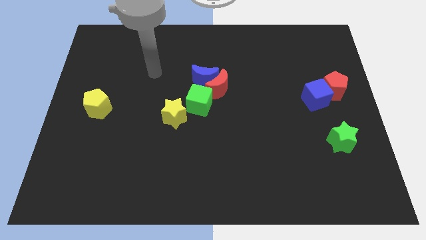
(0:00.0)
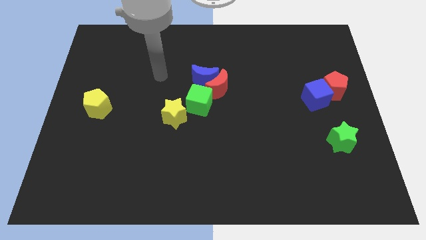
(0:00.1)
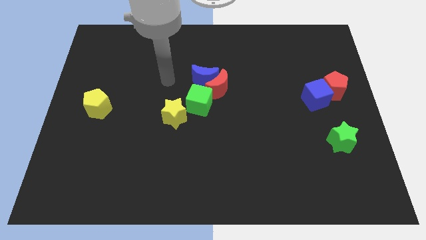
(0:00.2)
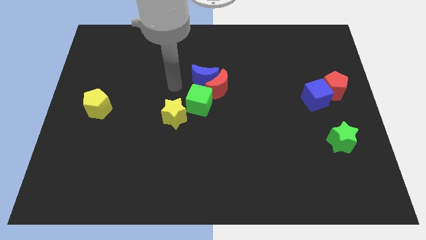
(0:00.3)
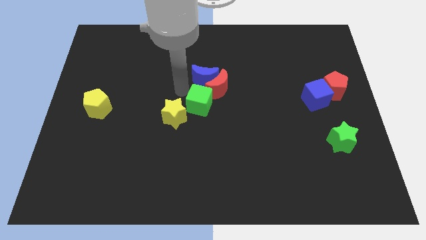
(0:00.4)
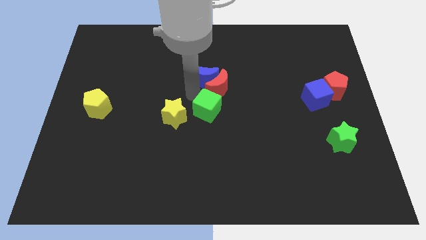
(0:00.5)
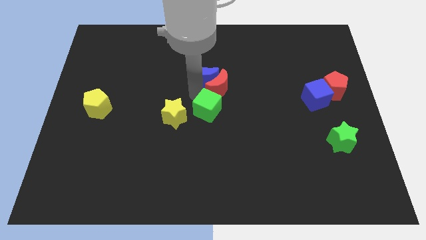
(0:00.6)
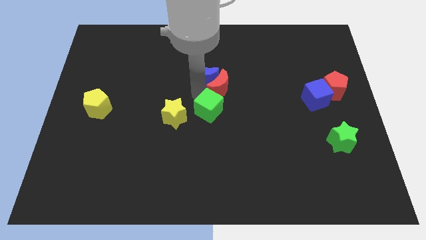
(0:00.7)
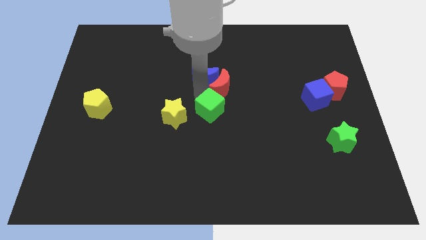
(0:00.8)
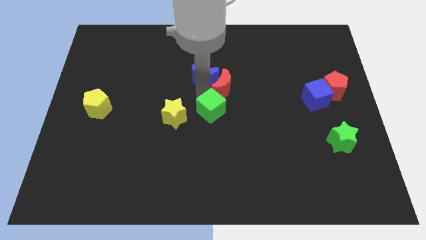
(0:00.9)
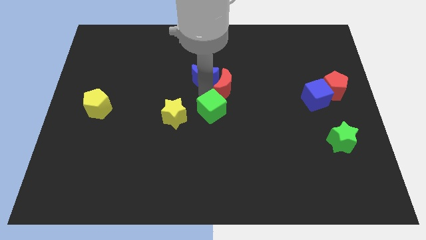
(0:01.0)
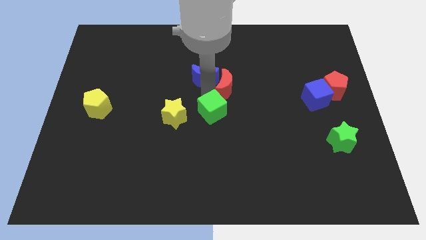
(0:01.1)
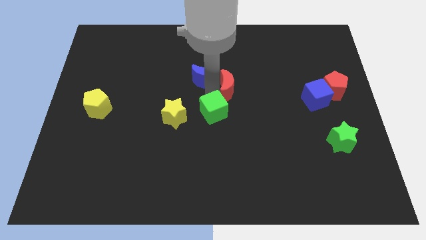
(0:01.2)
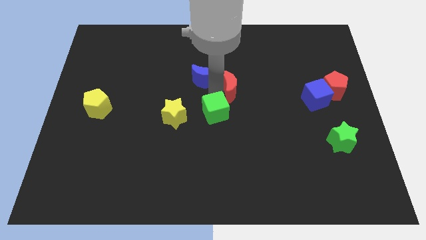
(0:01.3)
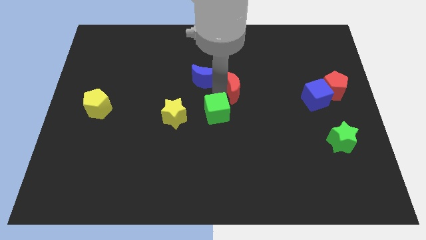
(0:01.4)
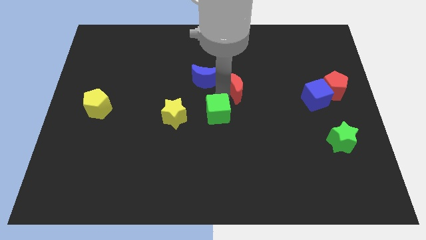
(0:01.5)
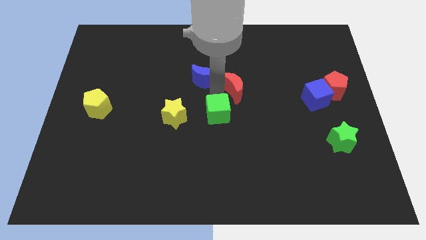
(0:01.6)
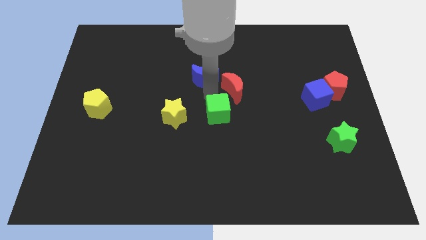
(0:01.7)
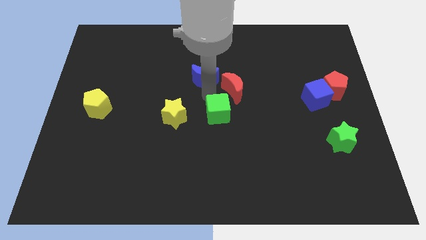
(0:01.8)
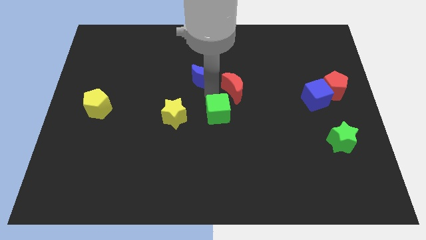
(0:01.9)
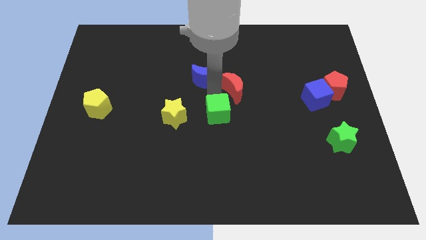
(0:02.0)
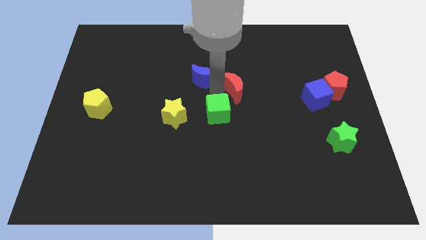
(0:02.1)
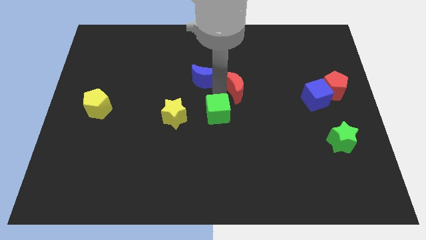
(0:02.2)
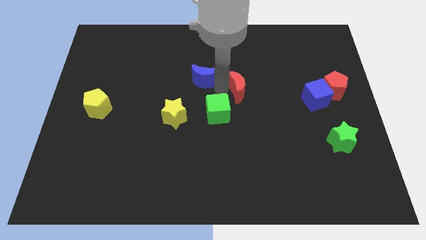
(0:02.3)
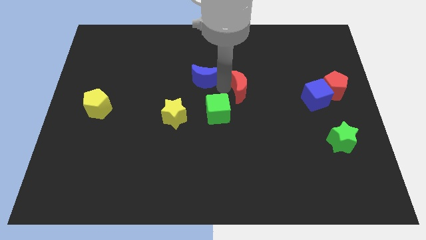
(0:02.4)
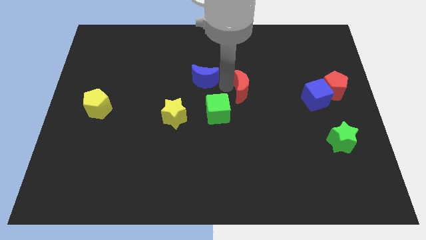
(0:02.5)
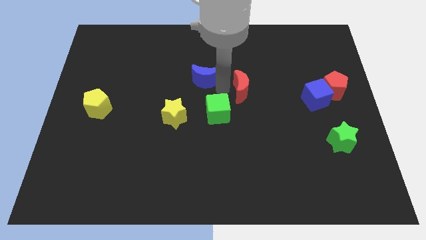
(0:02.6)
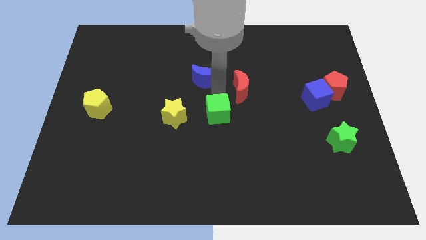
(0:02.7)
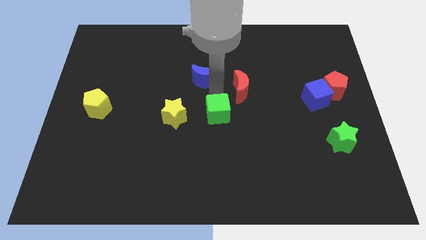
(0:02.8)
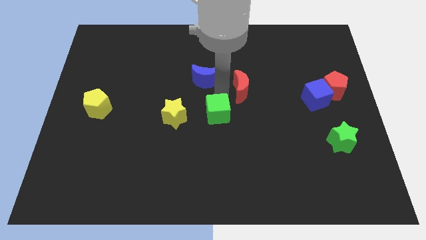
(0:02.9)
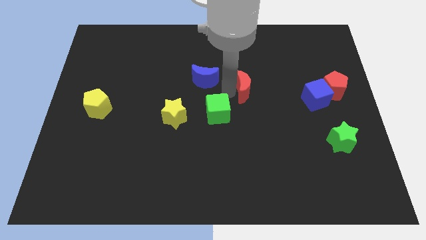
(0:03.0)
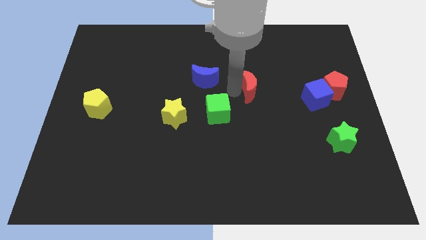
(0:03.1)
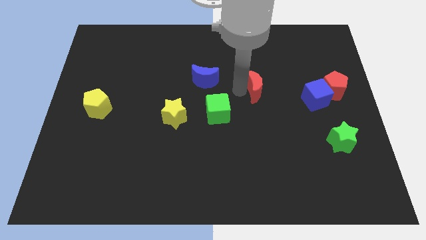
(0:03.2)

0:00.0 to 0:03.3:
pull the red moon apart from the blue moon and green cube

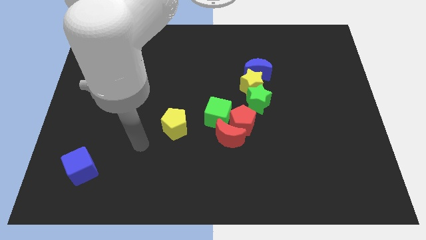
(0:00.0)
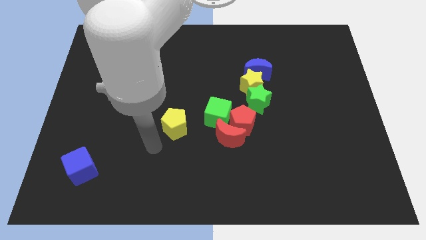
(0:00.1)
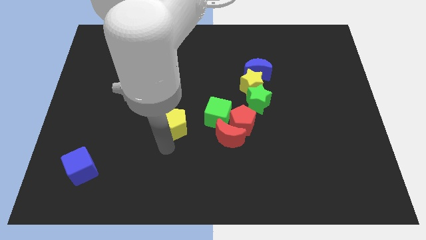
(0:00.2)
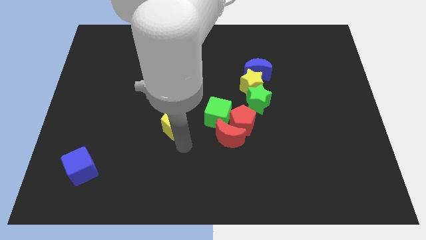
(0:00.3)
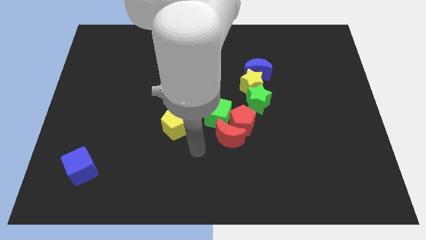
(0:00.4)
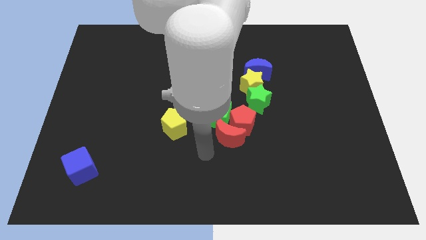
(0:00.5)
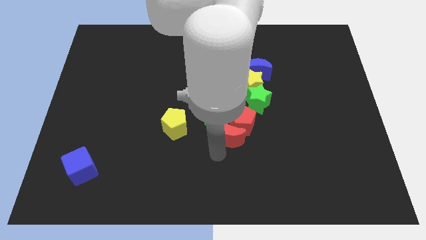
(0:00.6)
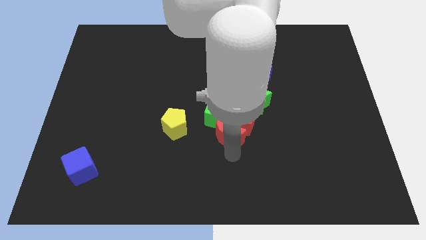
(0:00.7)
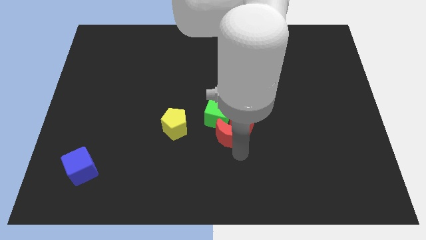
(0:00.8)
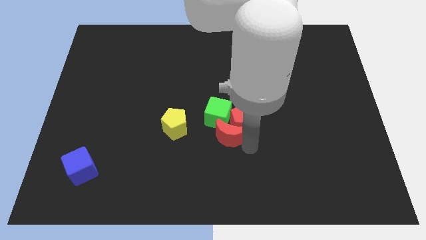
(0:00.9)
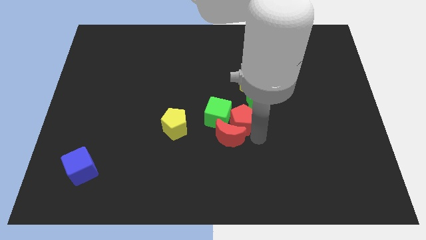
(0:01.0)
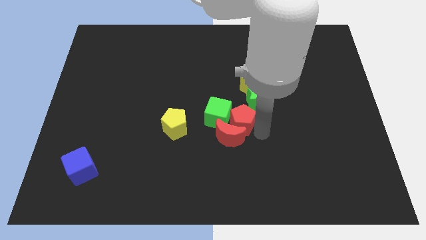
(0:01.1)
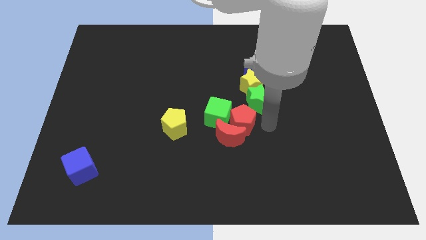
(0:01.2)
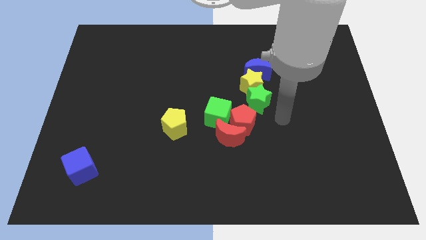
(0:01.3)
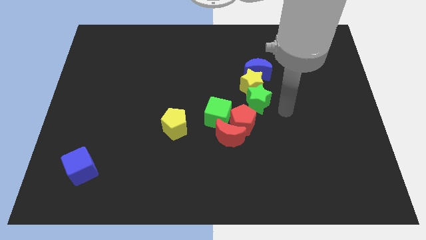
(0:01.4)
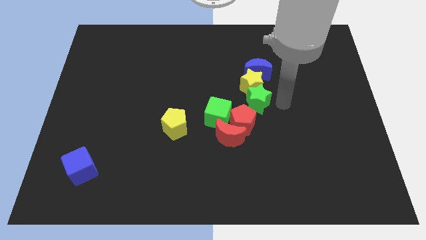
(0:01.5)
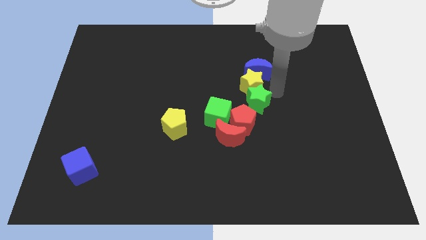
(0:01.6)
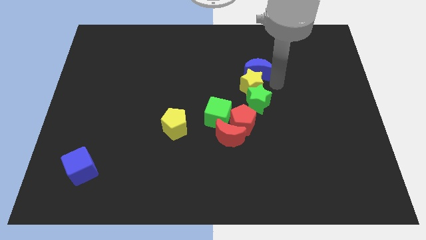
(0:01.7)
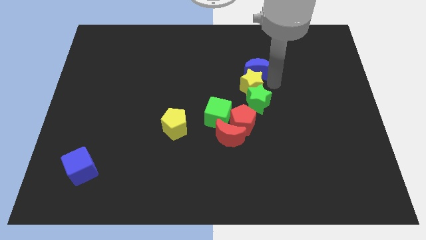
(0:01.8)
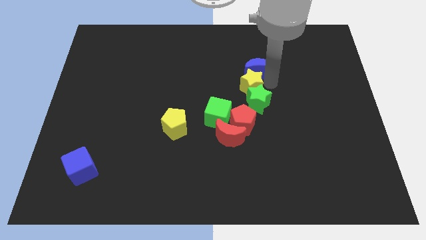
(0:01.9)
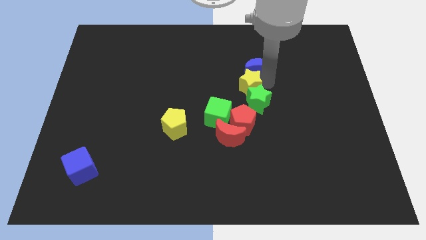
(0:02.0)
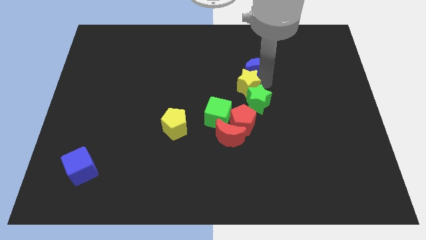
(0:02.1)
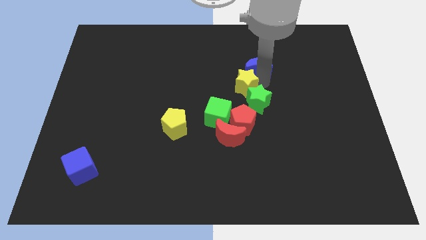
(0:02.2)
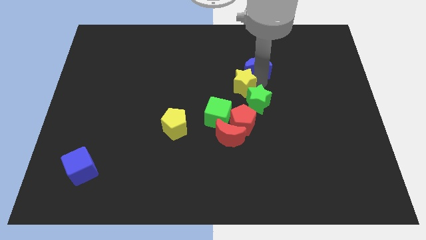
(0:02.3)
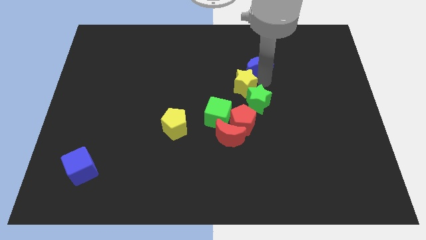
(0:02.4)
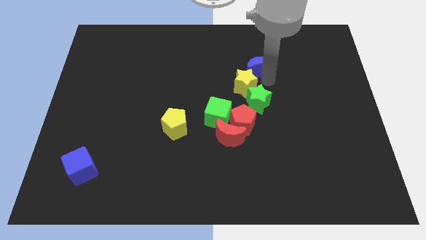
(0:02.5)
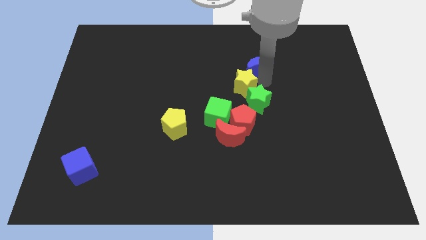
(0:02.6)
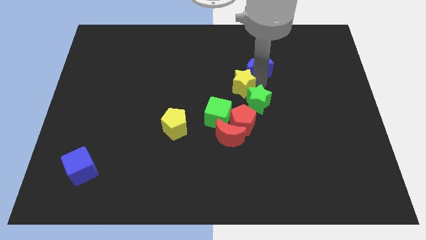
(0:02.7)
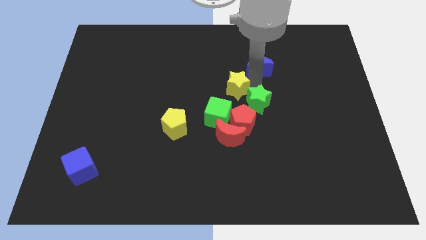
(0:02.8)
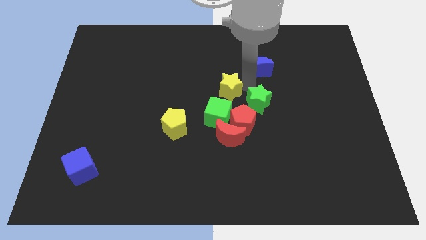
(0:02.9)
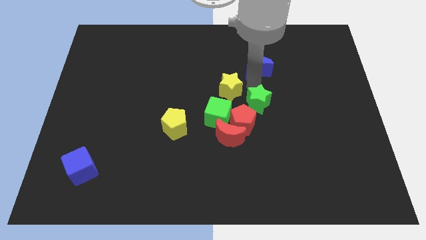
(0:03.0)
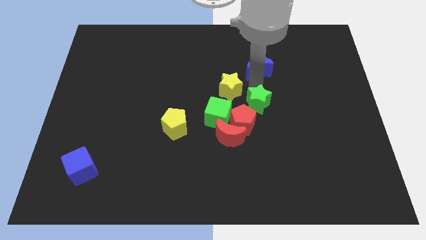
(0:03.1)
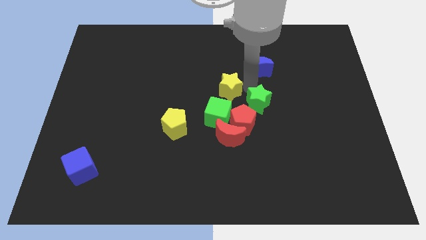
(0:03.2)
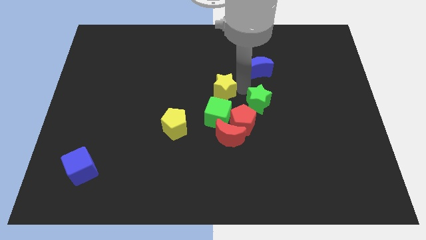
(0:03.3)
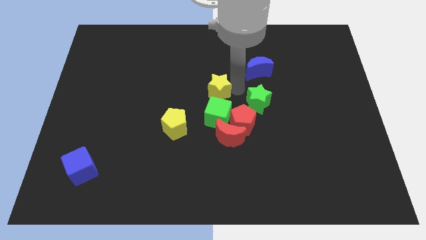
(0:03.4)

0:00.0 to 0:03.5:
separate the yellow star from the green star and blue moon

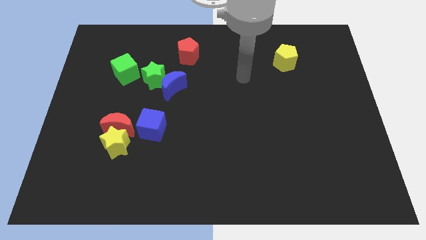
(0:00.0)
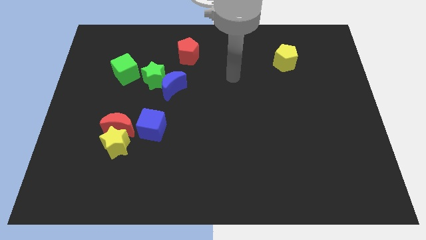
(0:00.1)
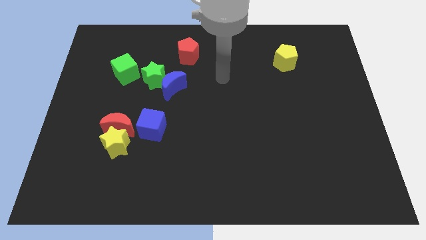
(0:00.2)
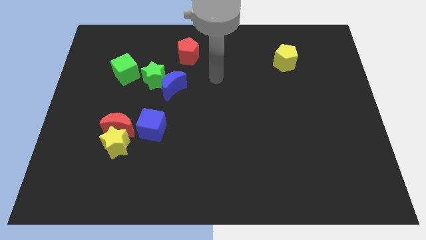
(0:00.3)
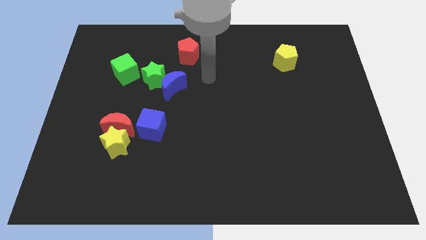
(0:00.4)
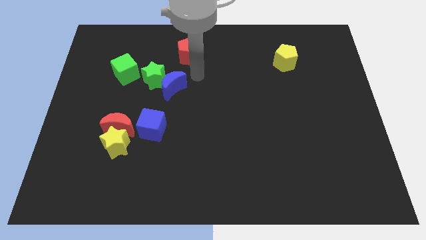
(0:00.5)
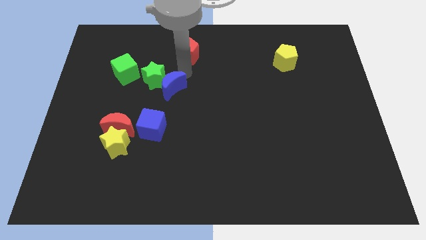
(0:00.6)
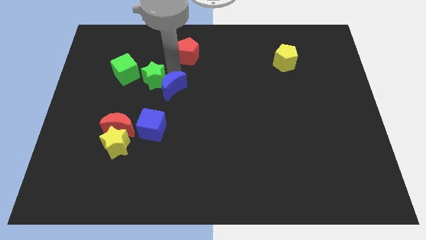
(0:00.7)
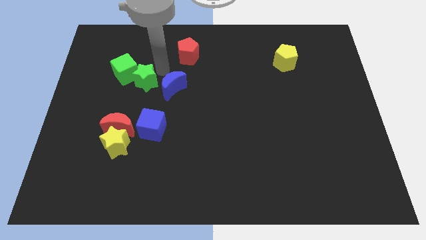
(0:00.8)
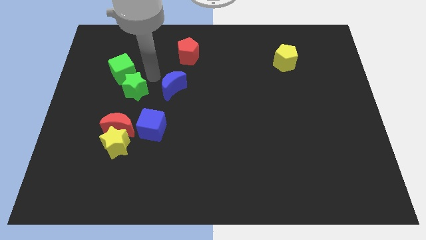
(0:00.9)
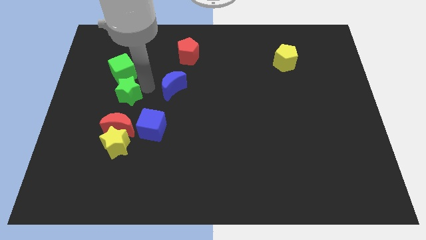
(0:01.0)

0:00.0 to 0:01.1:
separate the blue moon from the green star

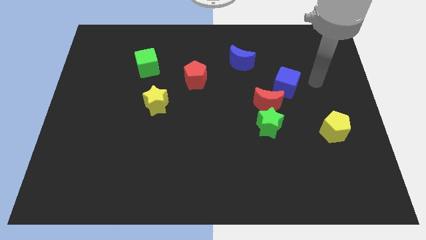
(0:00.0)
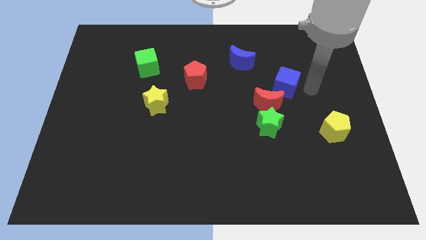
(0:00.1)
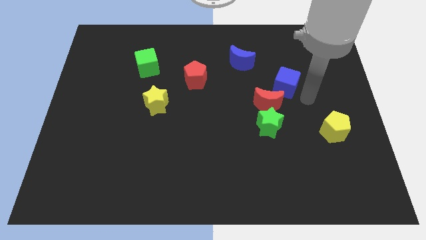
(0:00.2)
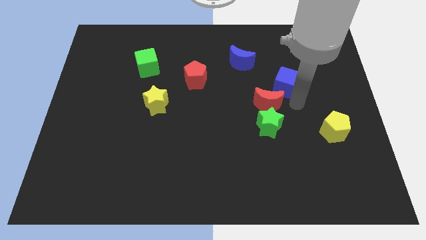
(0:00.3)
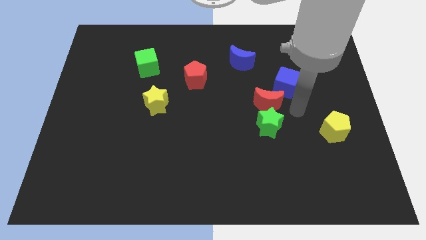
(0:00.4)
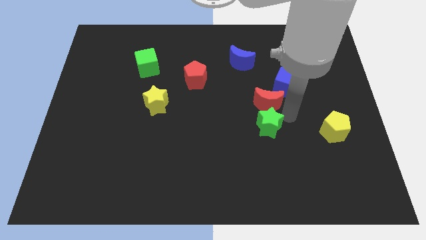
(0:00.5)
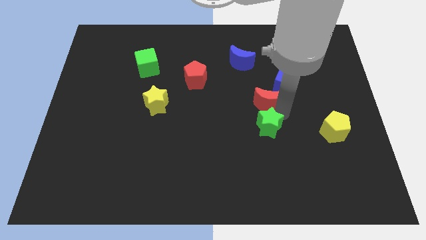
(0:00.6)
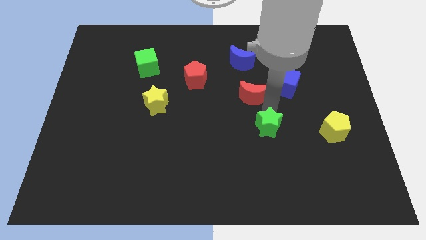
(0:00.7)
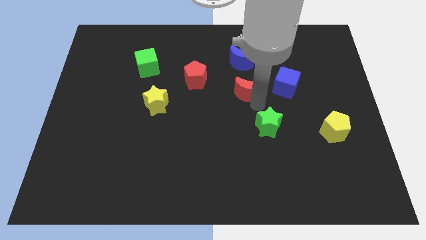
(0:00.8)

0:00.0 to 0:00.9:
pull the green star apart from the red moon

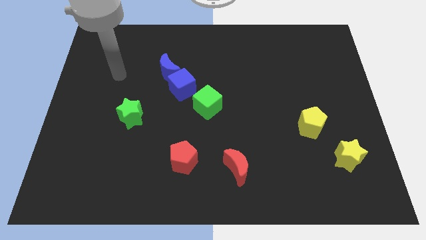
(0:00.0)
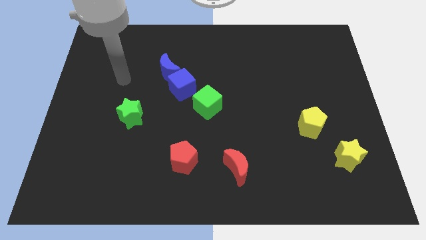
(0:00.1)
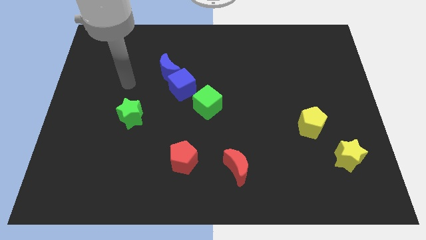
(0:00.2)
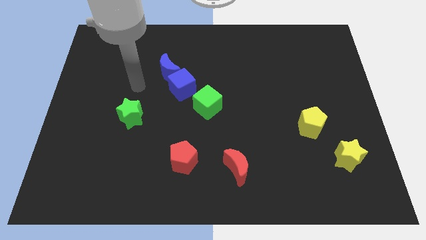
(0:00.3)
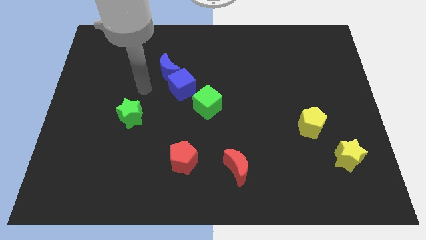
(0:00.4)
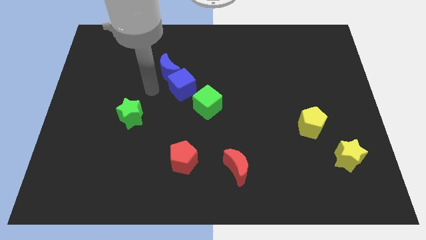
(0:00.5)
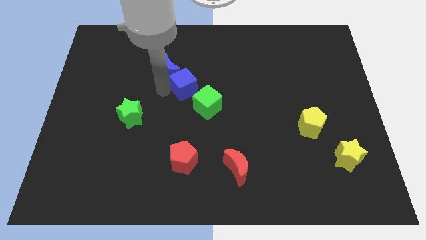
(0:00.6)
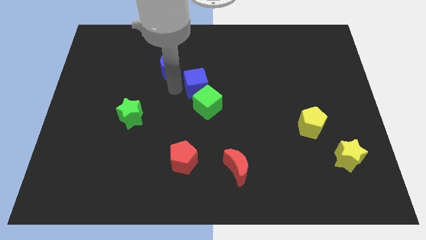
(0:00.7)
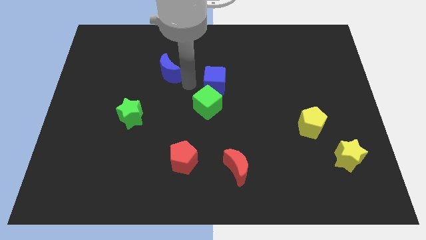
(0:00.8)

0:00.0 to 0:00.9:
separate the blue moon from the blue cube
